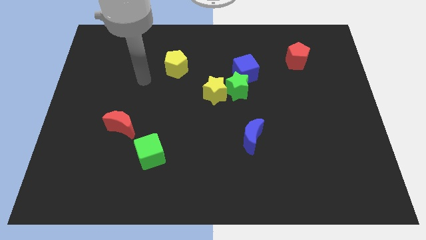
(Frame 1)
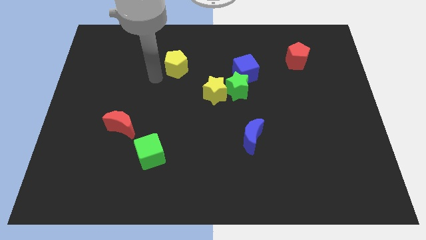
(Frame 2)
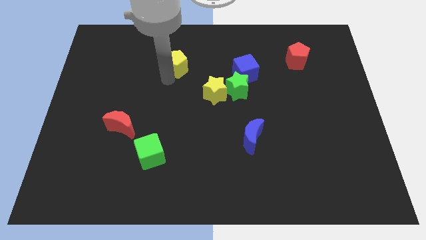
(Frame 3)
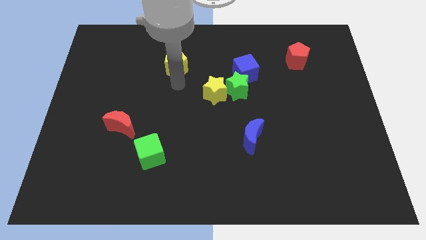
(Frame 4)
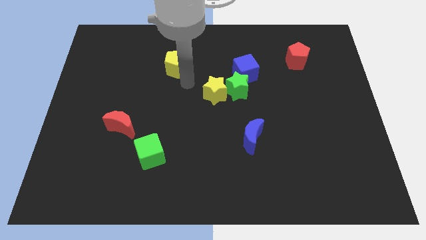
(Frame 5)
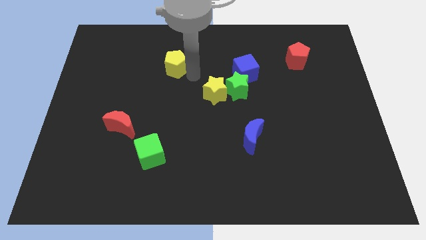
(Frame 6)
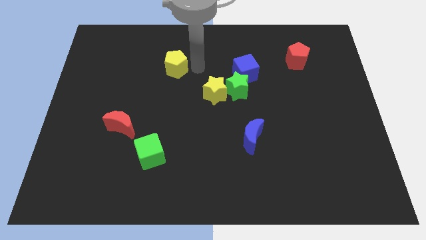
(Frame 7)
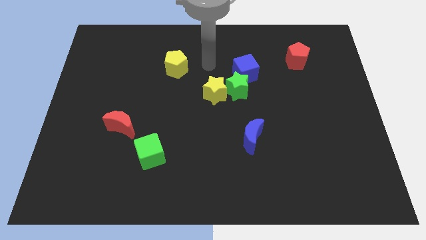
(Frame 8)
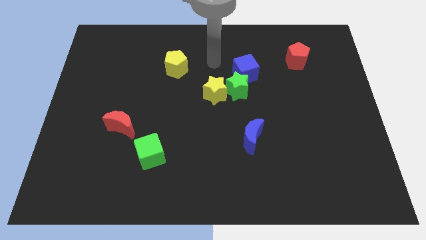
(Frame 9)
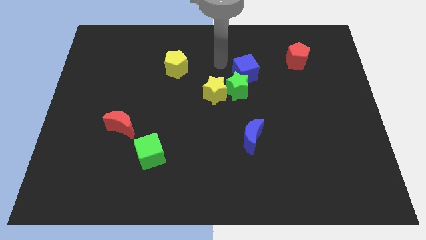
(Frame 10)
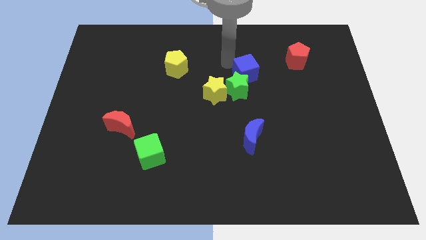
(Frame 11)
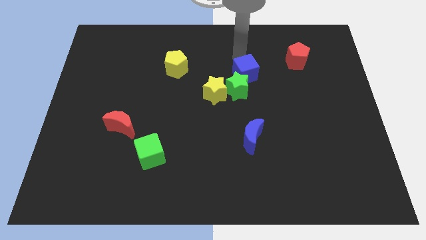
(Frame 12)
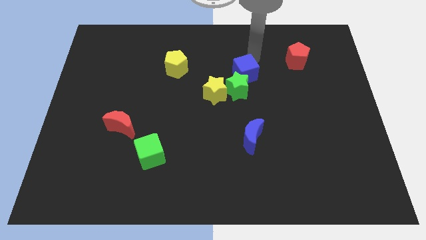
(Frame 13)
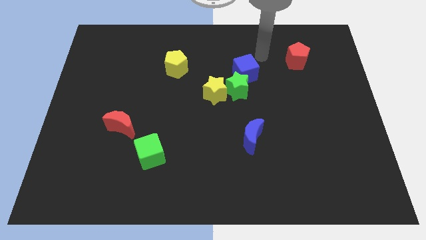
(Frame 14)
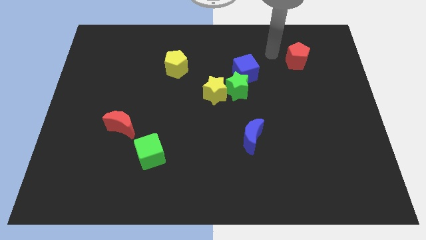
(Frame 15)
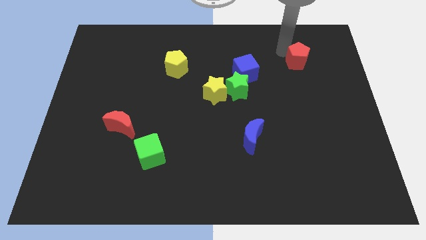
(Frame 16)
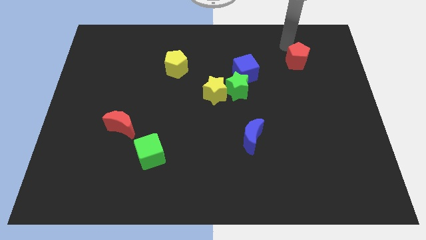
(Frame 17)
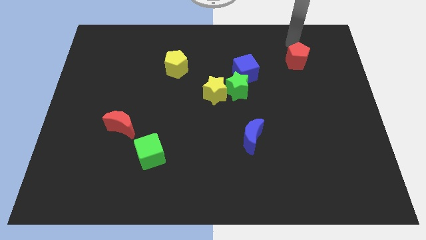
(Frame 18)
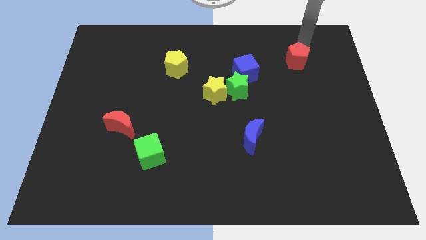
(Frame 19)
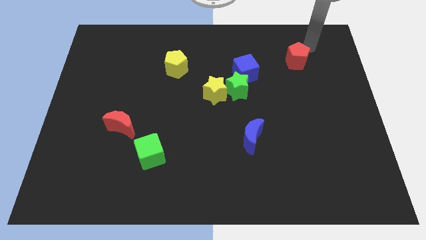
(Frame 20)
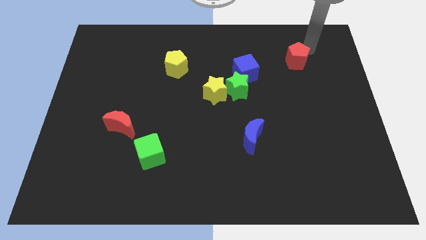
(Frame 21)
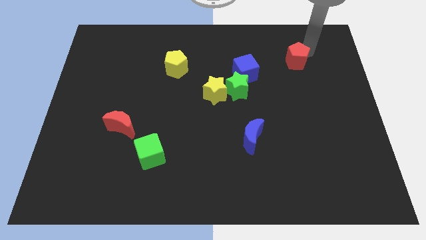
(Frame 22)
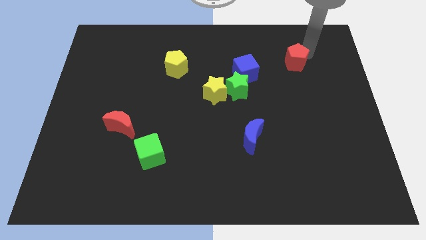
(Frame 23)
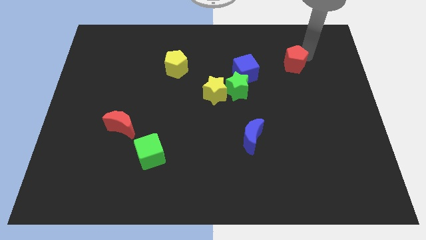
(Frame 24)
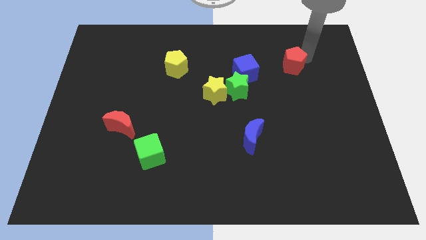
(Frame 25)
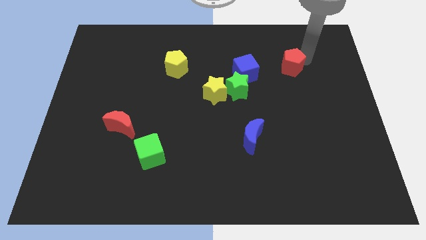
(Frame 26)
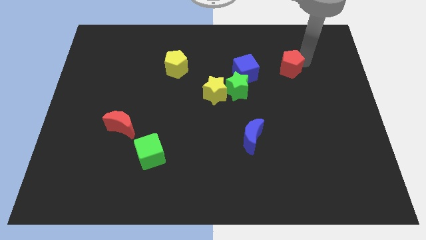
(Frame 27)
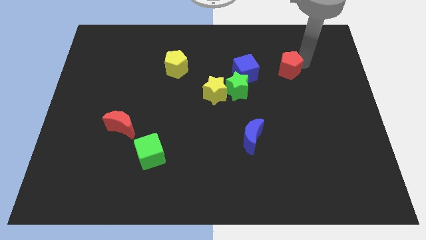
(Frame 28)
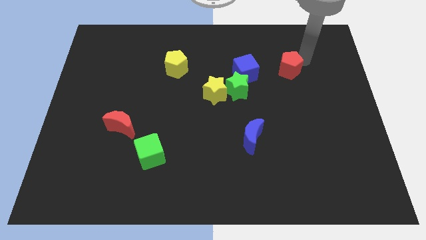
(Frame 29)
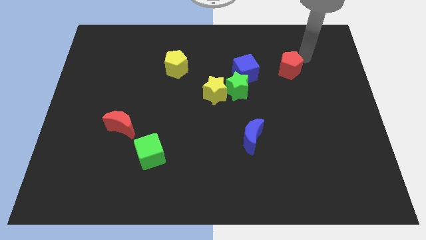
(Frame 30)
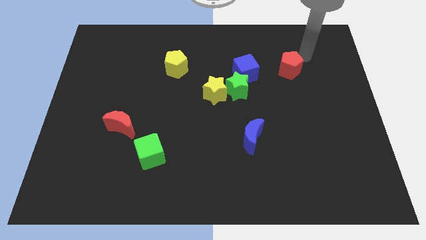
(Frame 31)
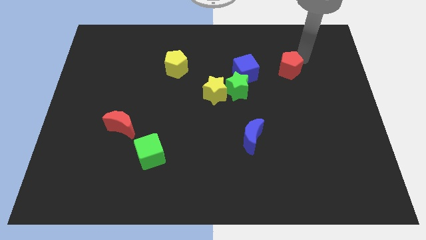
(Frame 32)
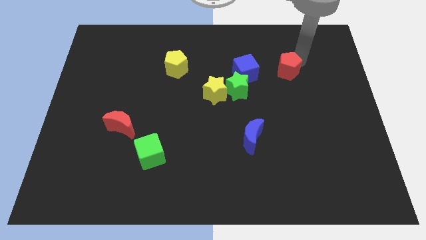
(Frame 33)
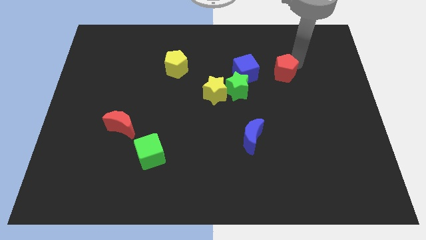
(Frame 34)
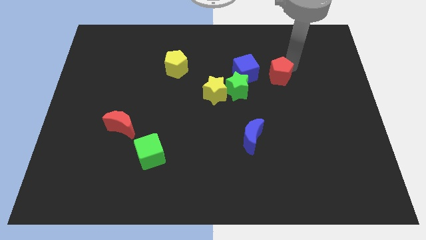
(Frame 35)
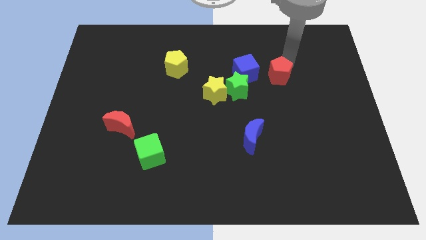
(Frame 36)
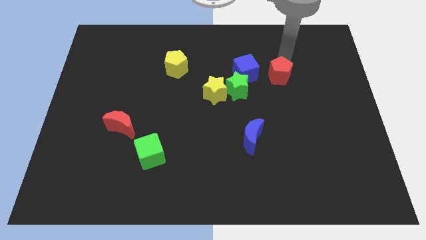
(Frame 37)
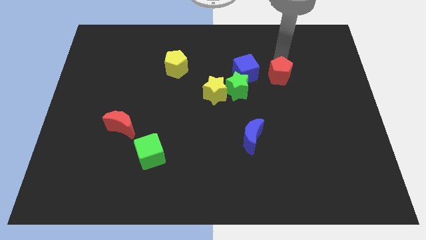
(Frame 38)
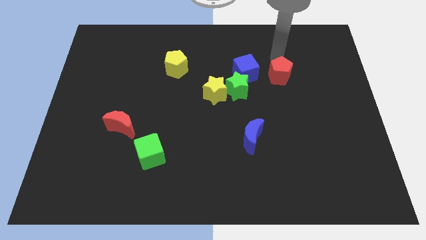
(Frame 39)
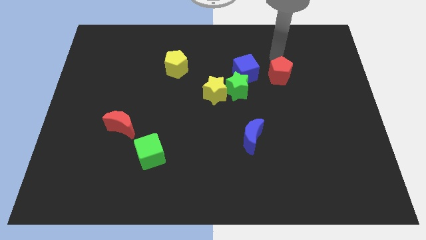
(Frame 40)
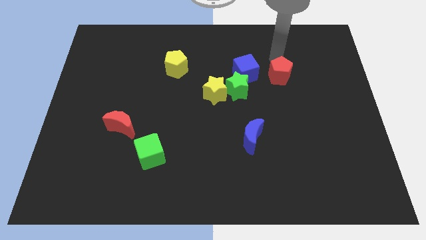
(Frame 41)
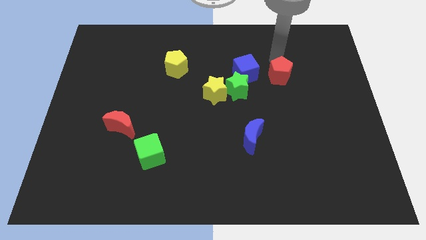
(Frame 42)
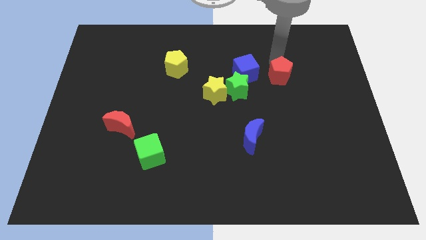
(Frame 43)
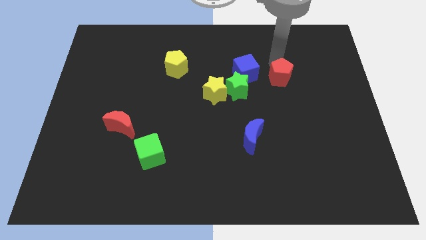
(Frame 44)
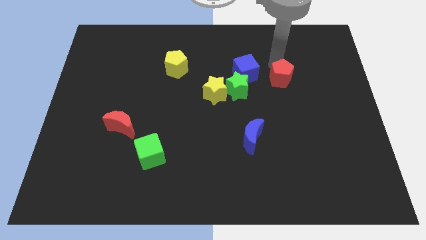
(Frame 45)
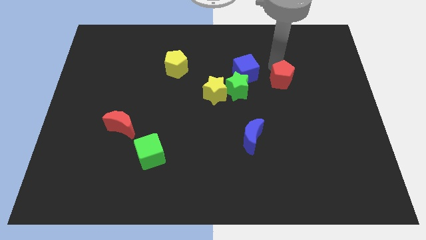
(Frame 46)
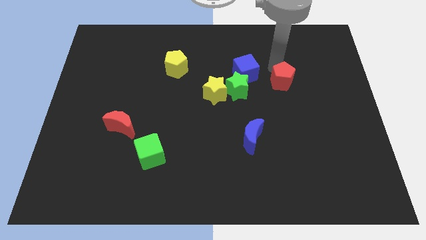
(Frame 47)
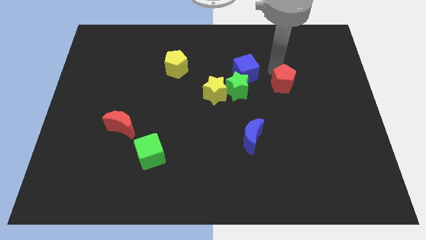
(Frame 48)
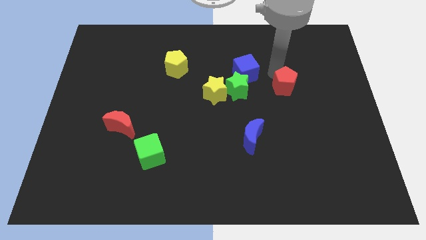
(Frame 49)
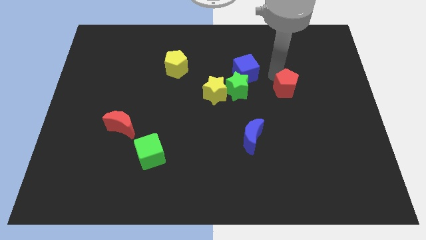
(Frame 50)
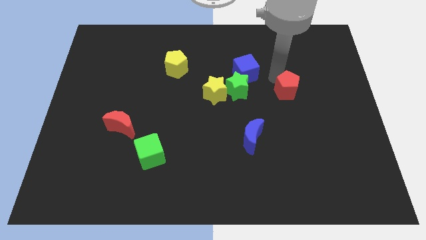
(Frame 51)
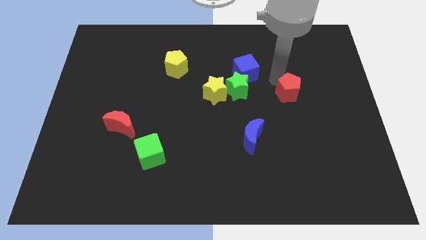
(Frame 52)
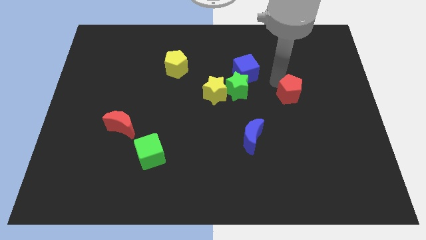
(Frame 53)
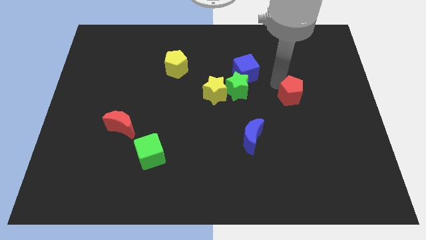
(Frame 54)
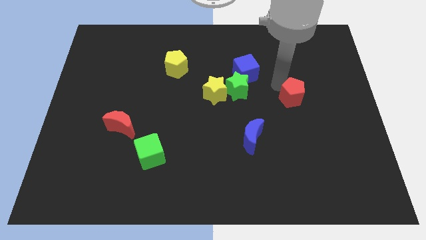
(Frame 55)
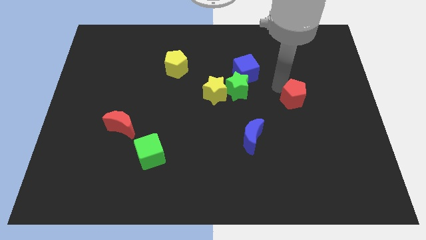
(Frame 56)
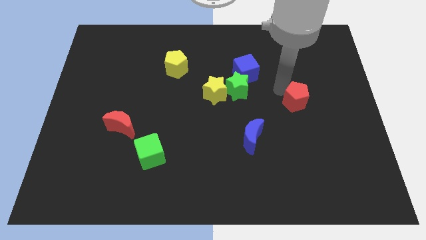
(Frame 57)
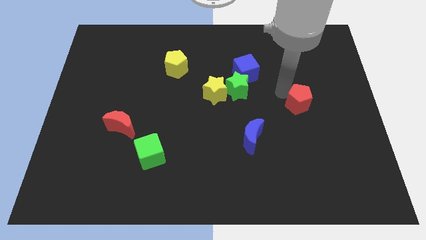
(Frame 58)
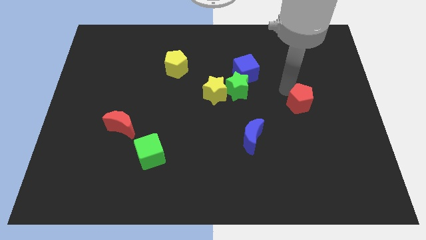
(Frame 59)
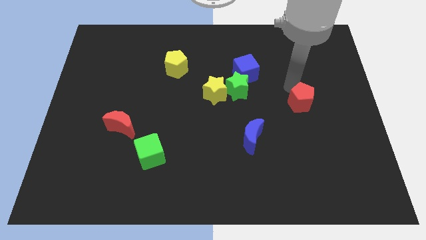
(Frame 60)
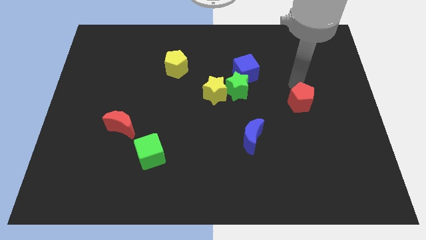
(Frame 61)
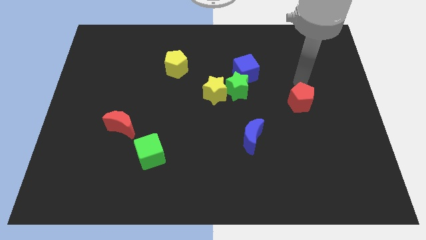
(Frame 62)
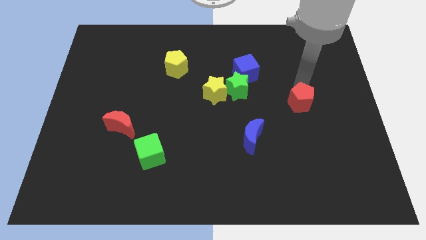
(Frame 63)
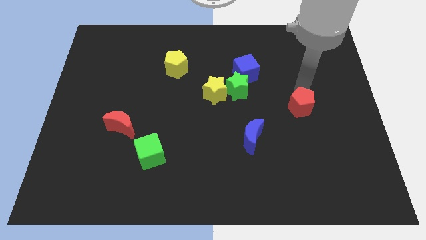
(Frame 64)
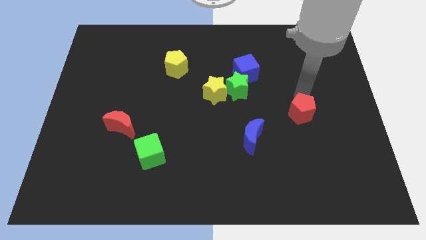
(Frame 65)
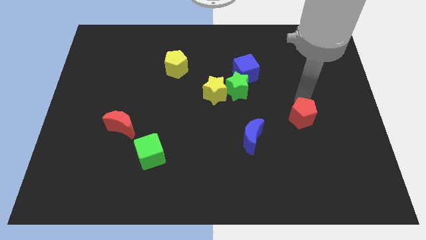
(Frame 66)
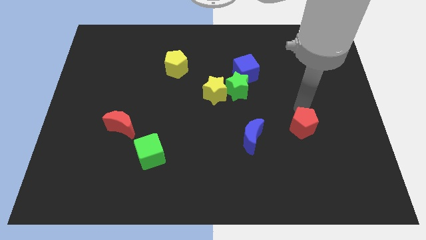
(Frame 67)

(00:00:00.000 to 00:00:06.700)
push the red pentagon downwards

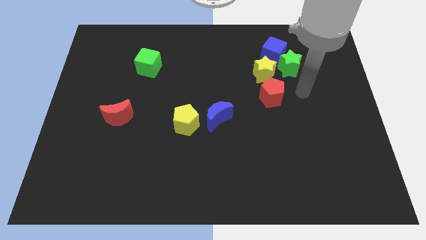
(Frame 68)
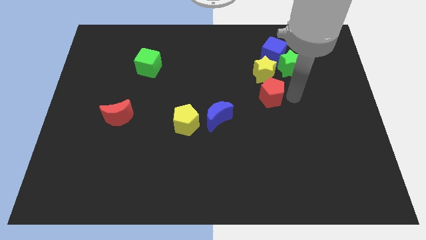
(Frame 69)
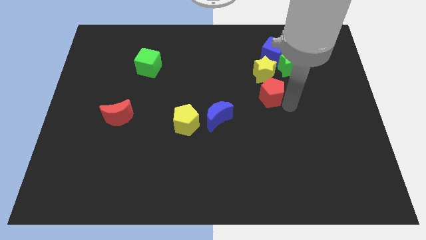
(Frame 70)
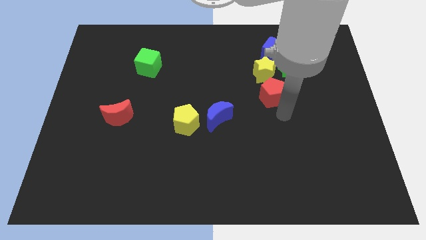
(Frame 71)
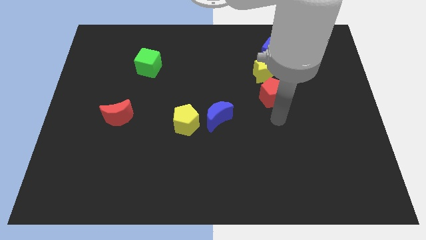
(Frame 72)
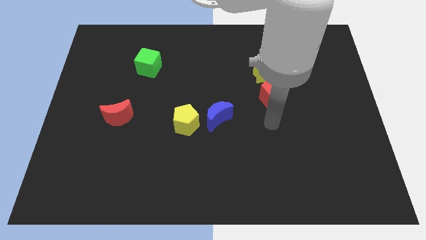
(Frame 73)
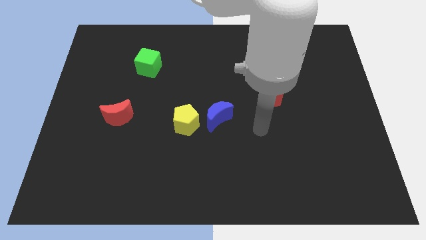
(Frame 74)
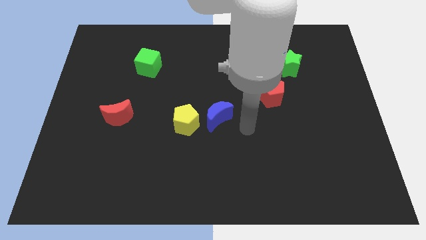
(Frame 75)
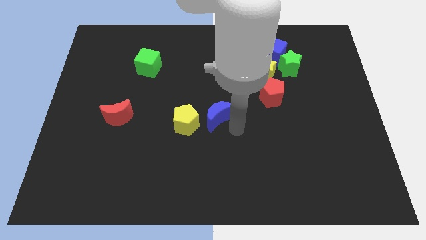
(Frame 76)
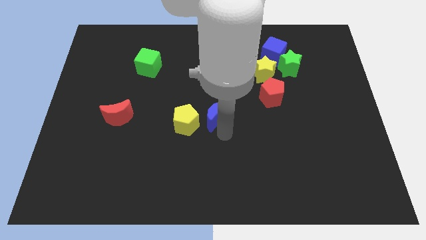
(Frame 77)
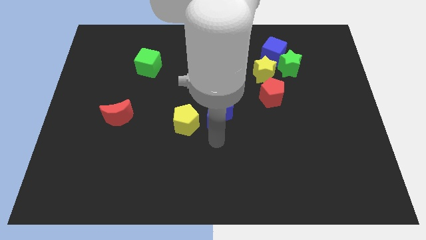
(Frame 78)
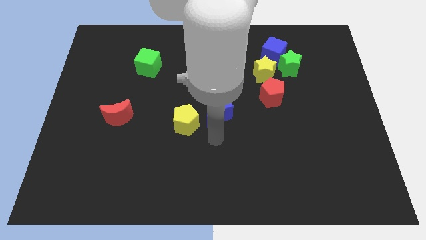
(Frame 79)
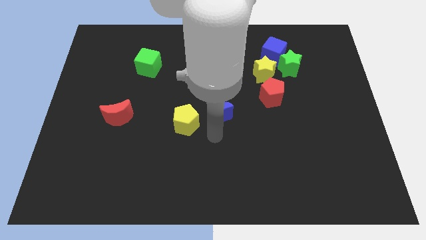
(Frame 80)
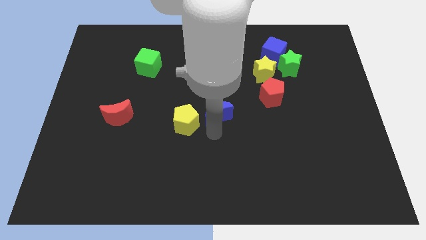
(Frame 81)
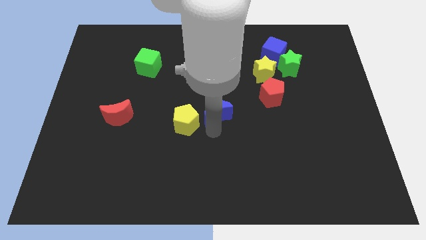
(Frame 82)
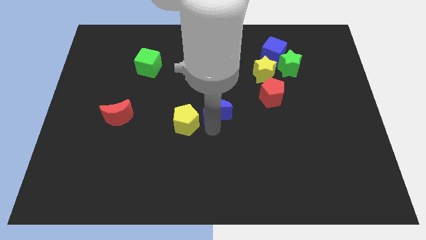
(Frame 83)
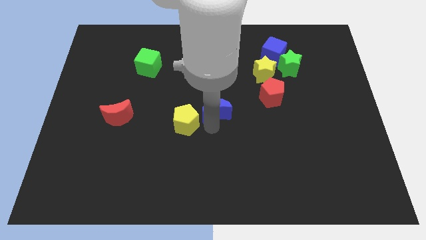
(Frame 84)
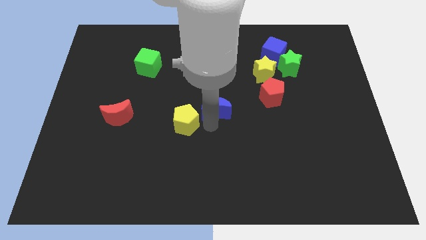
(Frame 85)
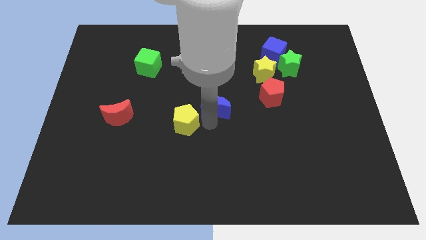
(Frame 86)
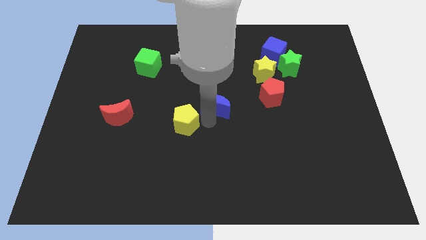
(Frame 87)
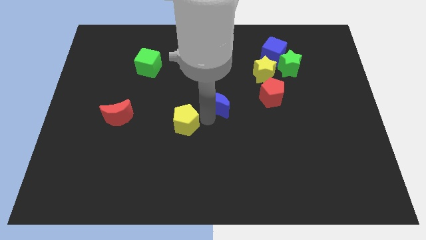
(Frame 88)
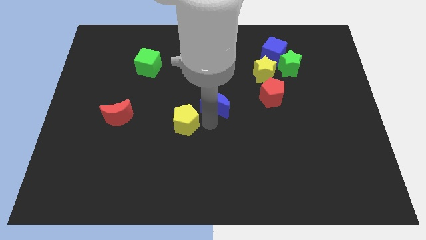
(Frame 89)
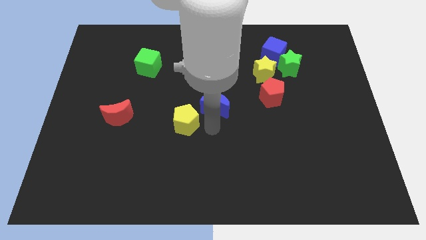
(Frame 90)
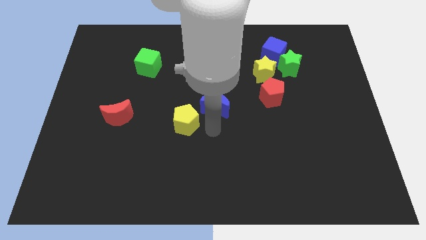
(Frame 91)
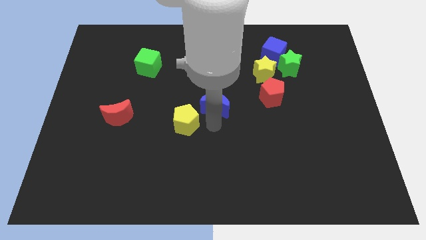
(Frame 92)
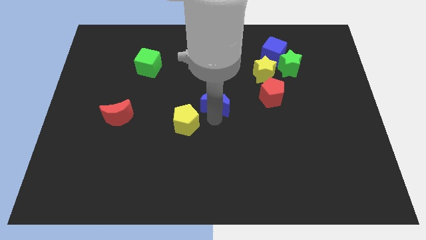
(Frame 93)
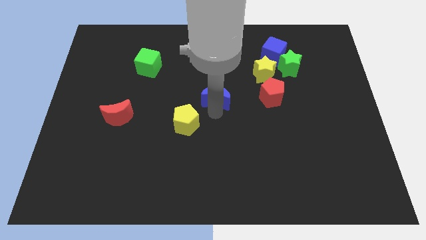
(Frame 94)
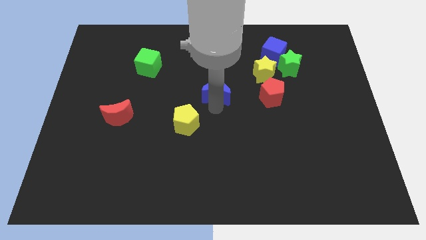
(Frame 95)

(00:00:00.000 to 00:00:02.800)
slightly push the blue moon up
